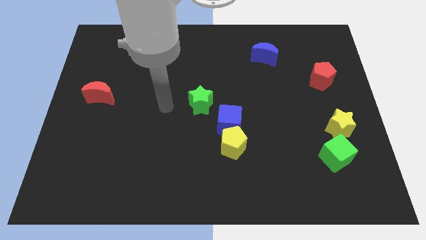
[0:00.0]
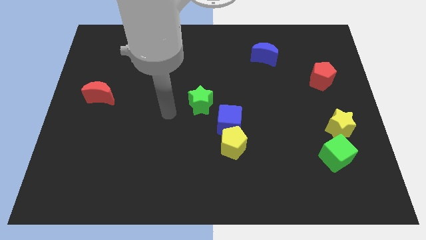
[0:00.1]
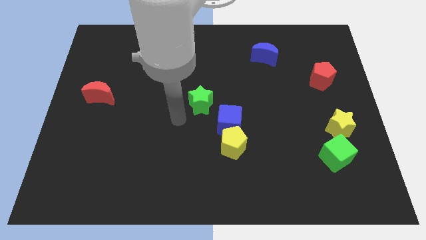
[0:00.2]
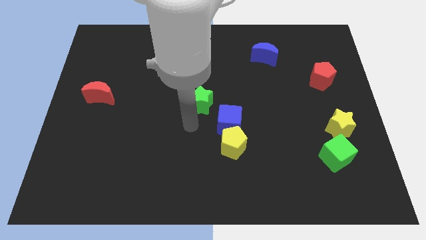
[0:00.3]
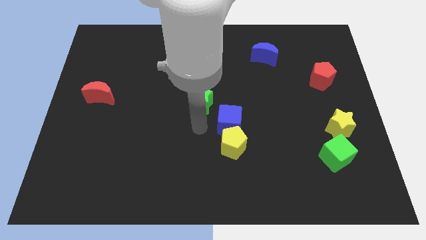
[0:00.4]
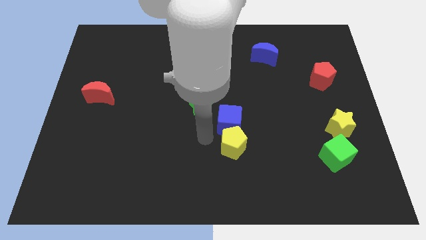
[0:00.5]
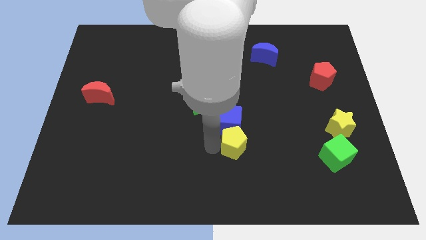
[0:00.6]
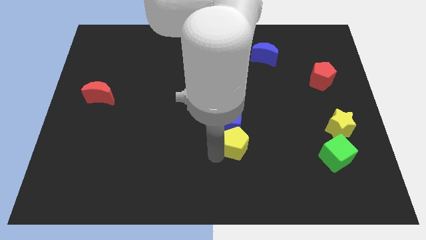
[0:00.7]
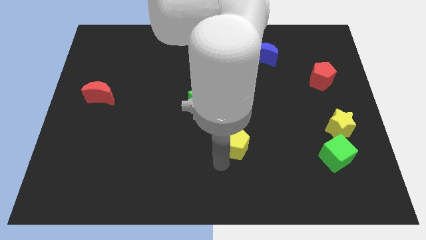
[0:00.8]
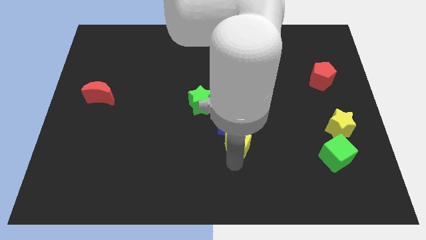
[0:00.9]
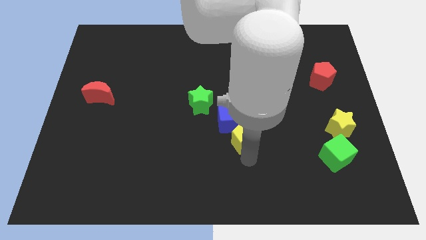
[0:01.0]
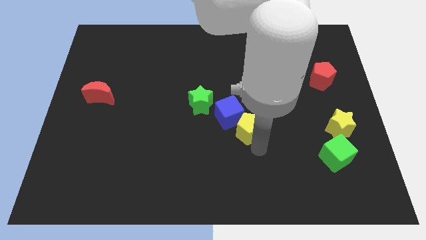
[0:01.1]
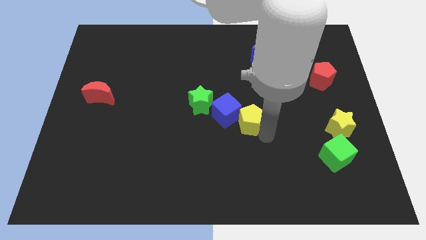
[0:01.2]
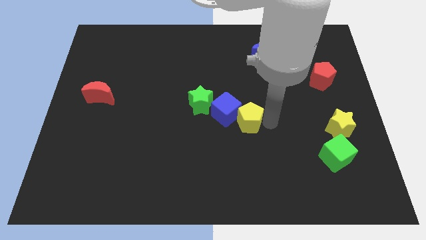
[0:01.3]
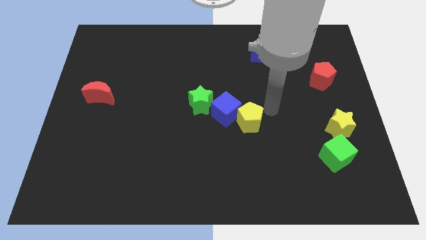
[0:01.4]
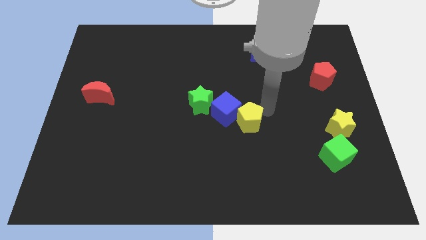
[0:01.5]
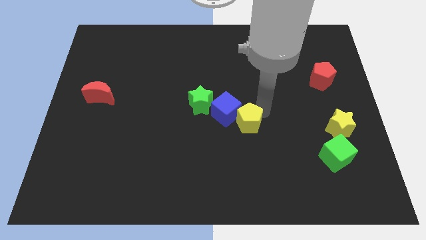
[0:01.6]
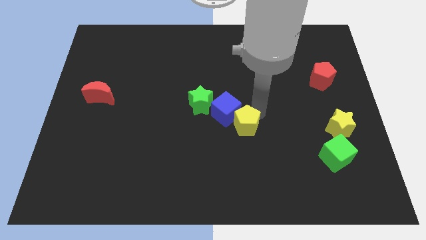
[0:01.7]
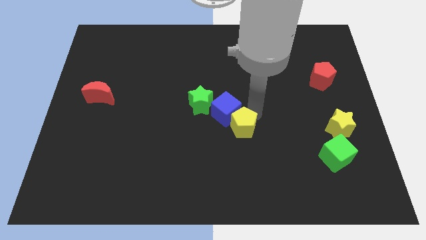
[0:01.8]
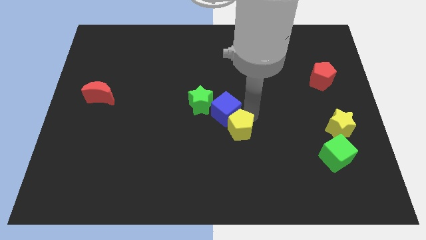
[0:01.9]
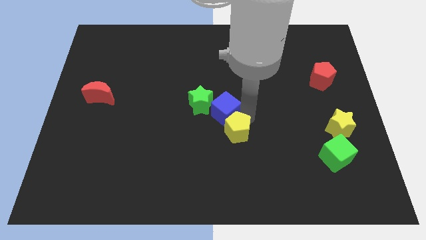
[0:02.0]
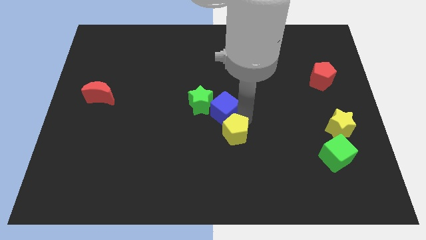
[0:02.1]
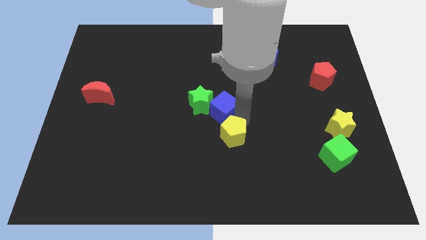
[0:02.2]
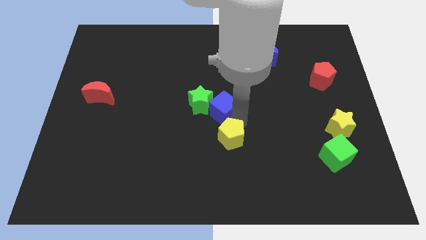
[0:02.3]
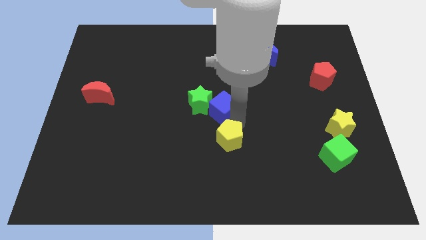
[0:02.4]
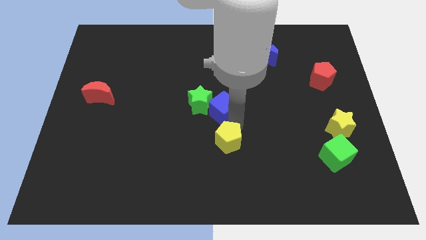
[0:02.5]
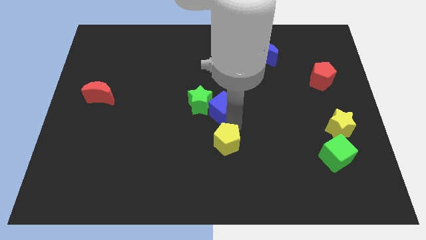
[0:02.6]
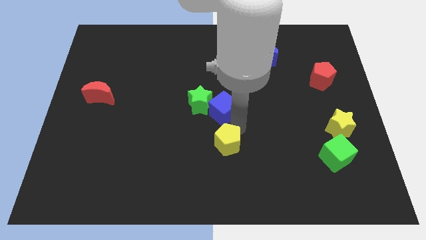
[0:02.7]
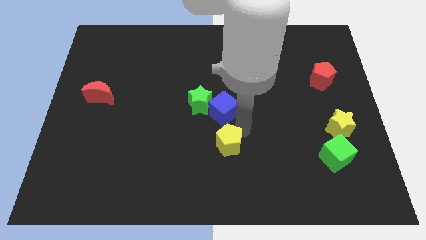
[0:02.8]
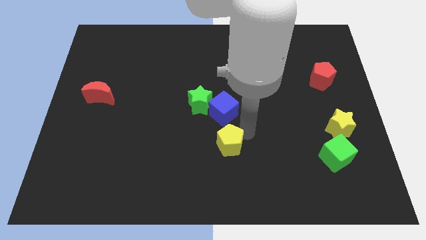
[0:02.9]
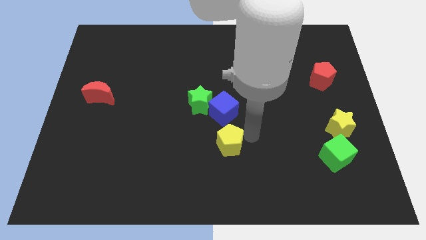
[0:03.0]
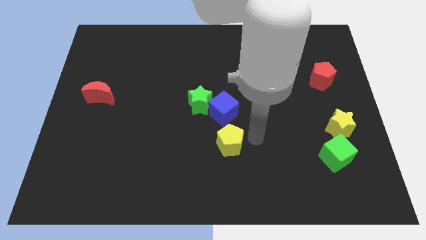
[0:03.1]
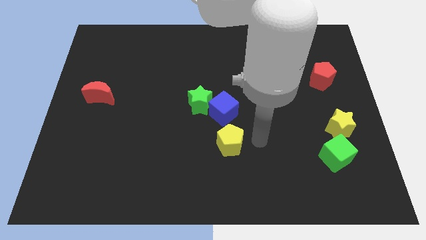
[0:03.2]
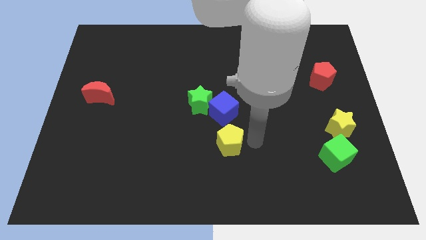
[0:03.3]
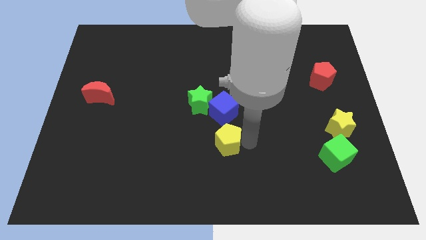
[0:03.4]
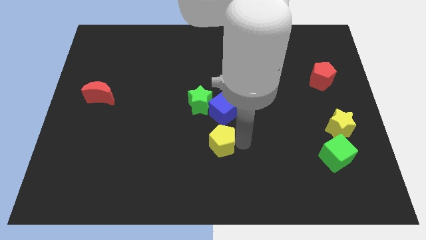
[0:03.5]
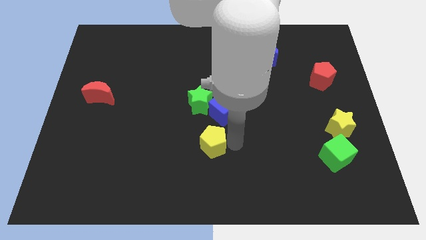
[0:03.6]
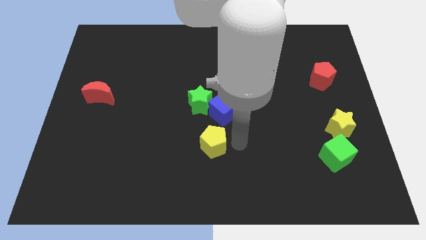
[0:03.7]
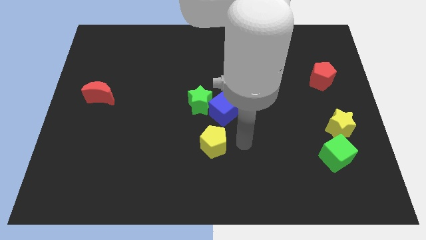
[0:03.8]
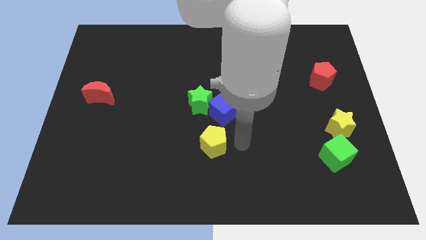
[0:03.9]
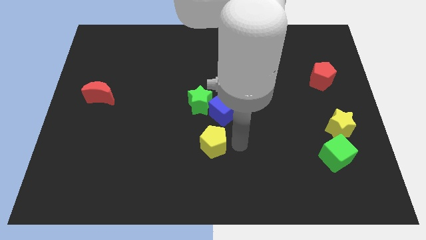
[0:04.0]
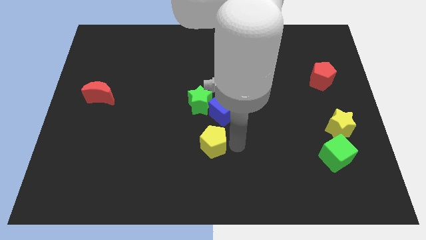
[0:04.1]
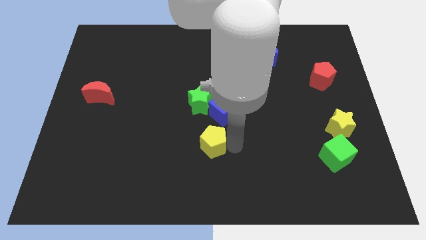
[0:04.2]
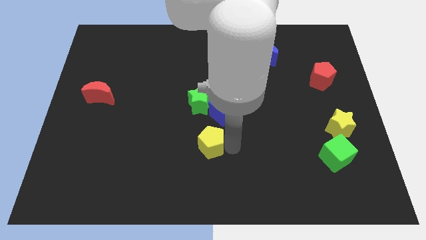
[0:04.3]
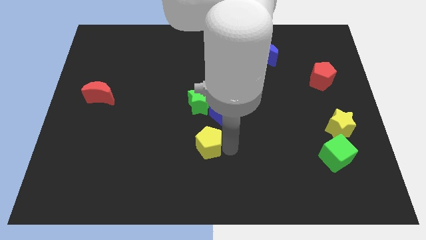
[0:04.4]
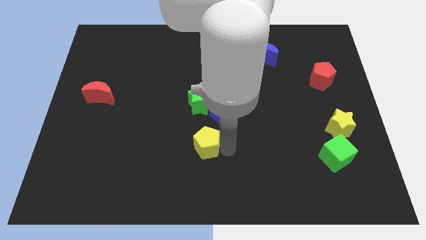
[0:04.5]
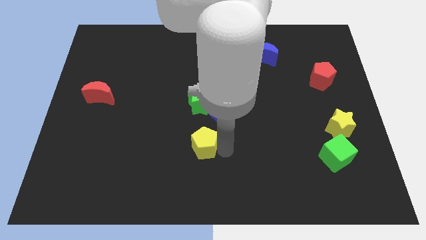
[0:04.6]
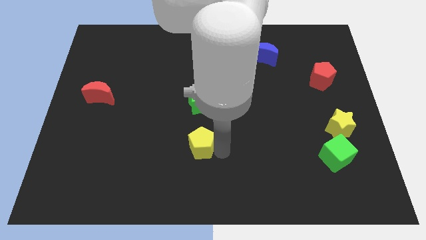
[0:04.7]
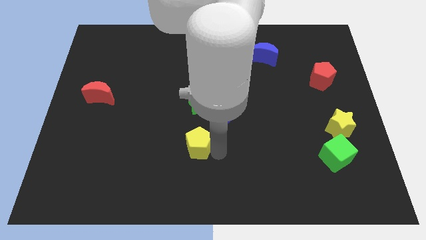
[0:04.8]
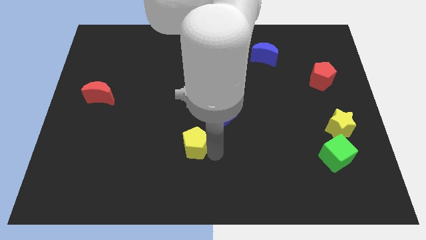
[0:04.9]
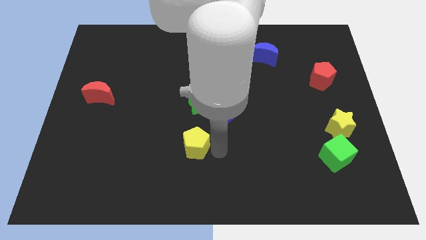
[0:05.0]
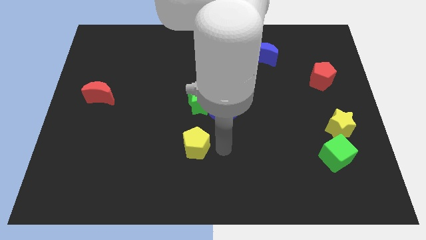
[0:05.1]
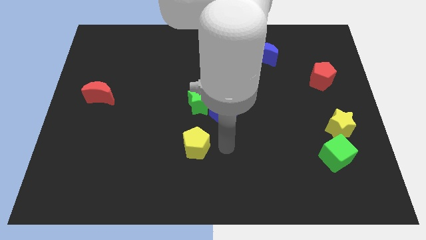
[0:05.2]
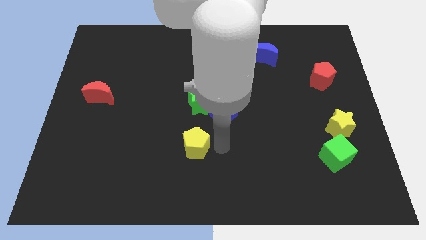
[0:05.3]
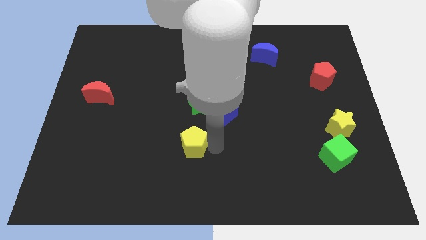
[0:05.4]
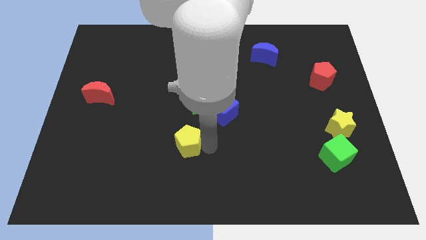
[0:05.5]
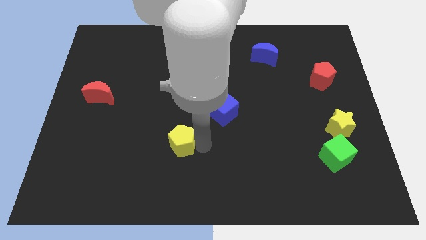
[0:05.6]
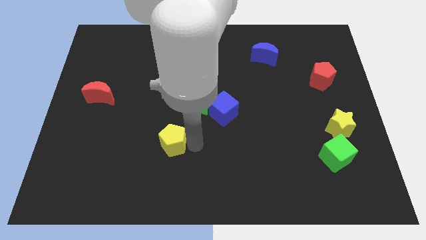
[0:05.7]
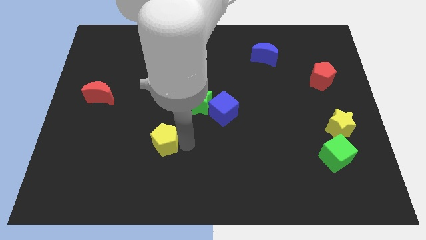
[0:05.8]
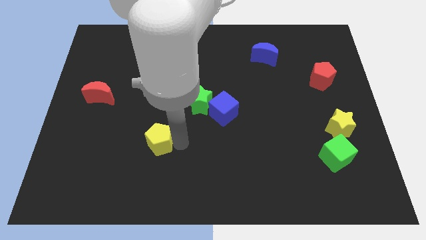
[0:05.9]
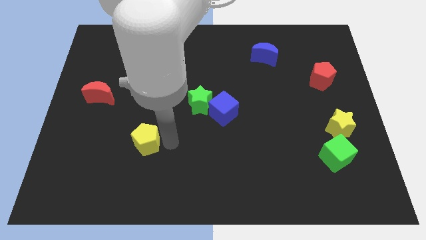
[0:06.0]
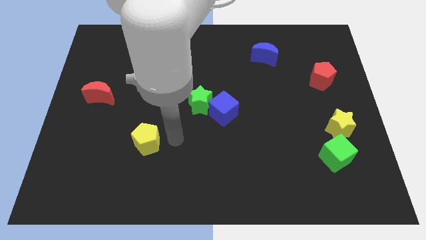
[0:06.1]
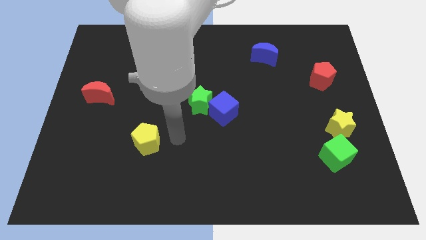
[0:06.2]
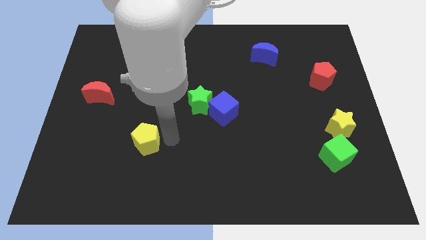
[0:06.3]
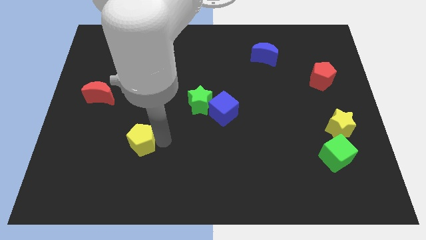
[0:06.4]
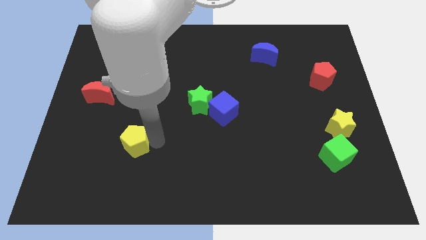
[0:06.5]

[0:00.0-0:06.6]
move the yellow pentagon to the left

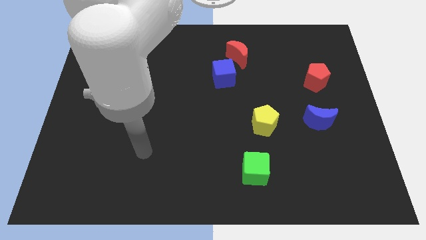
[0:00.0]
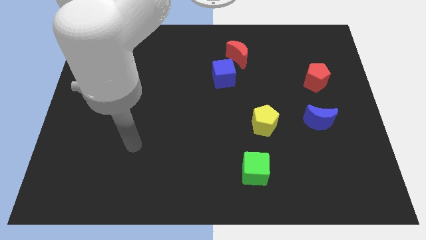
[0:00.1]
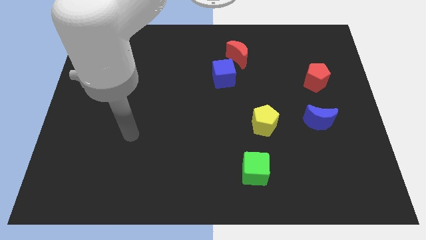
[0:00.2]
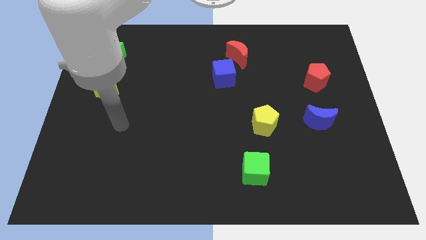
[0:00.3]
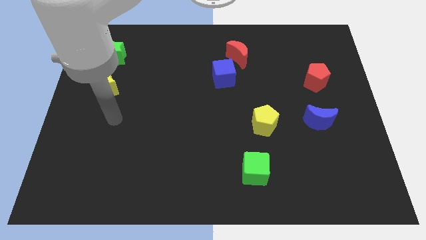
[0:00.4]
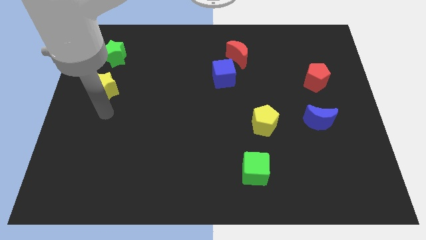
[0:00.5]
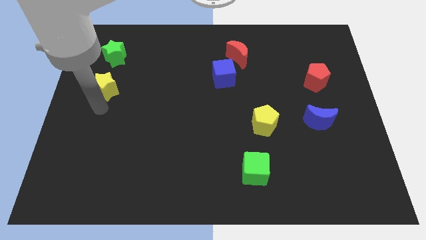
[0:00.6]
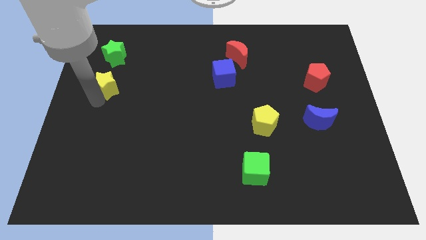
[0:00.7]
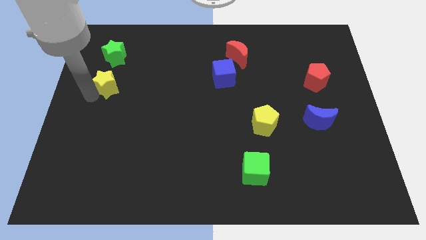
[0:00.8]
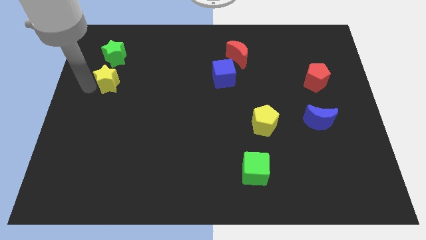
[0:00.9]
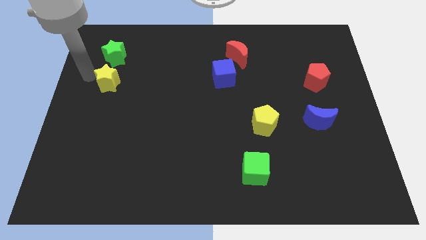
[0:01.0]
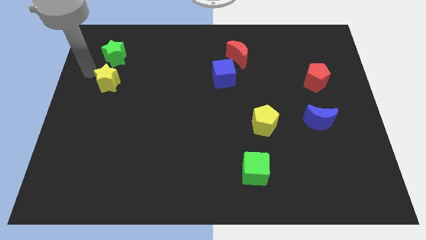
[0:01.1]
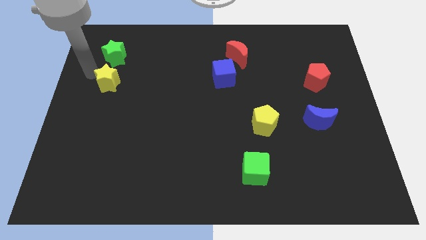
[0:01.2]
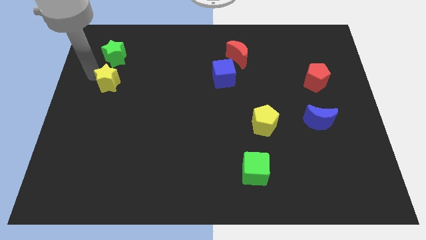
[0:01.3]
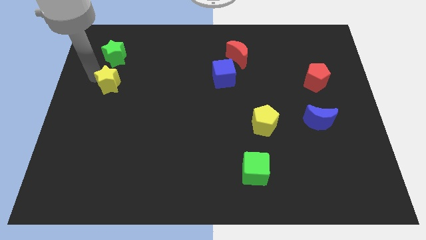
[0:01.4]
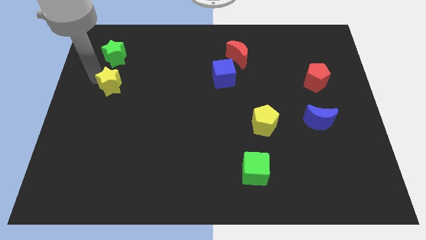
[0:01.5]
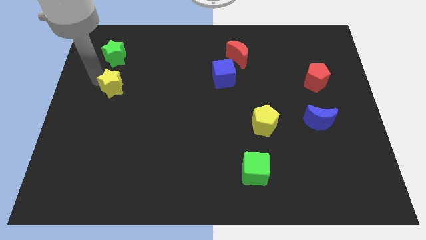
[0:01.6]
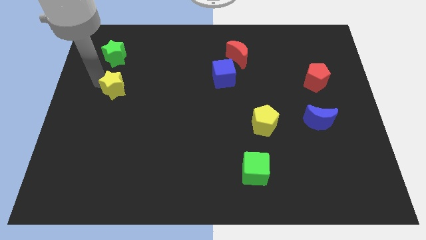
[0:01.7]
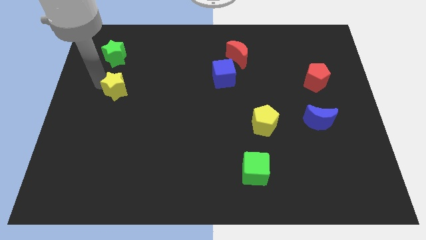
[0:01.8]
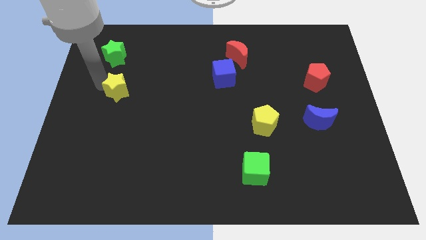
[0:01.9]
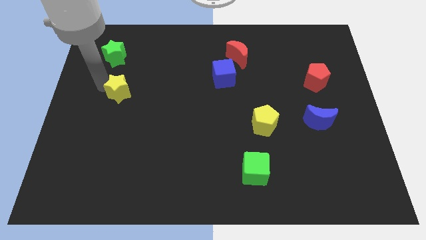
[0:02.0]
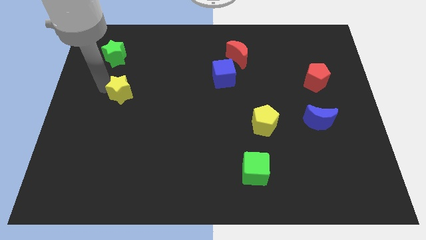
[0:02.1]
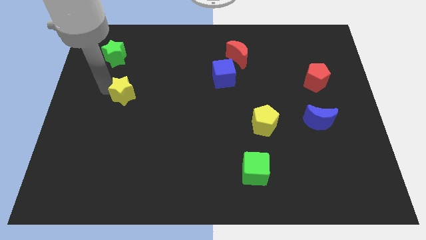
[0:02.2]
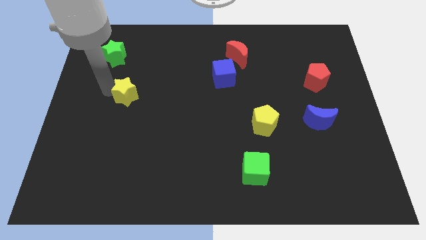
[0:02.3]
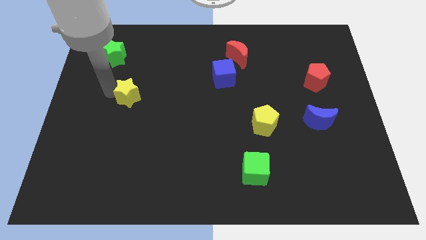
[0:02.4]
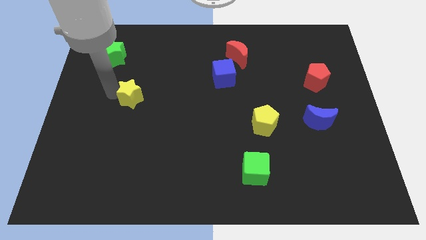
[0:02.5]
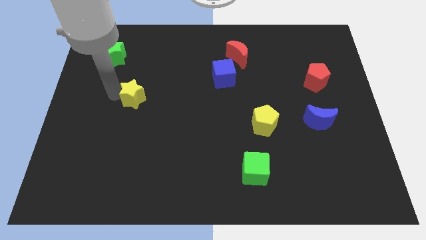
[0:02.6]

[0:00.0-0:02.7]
slightly push the yellow star to the right
